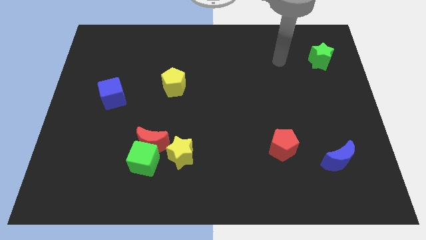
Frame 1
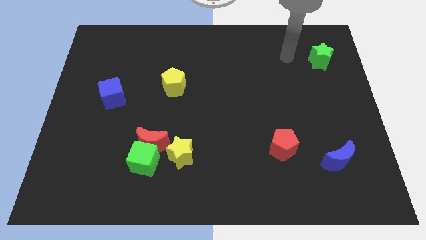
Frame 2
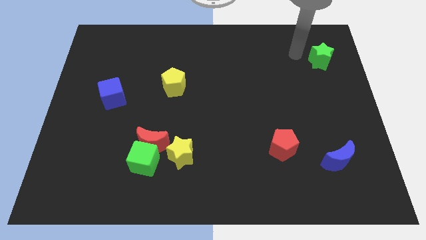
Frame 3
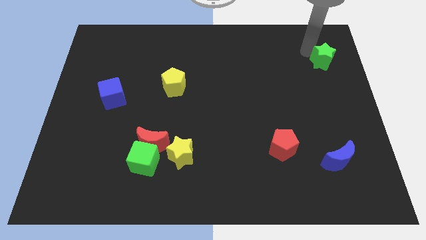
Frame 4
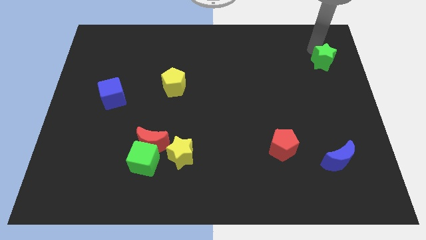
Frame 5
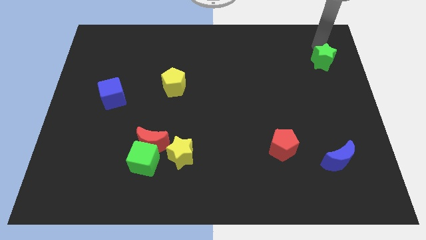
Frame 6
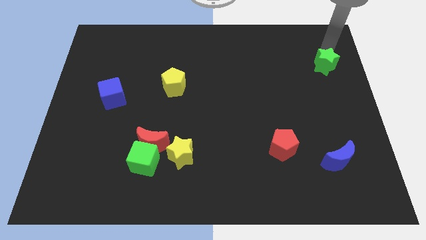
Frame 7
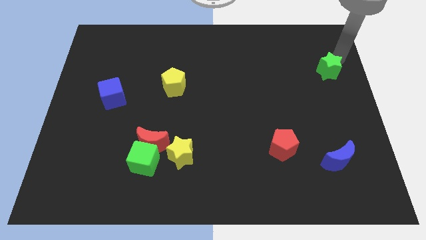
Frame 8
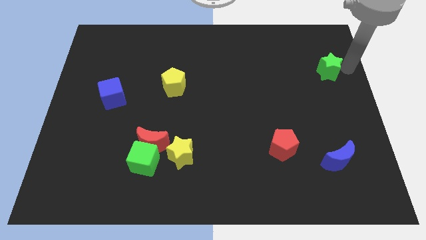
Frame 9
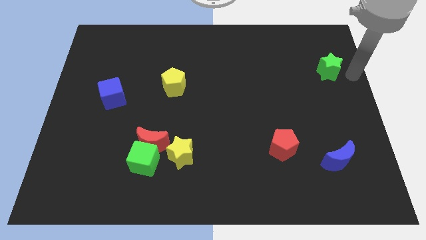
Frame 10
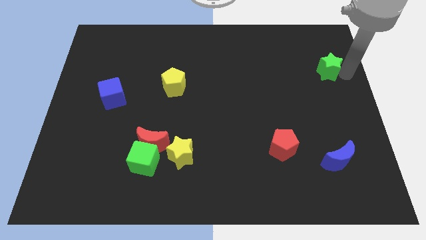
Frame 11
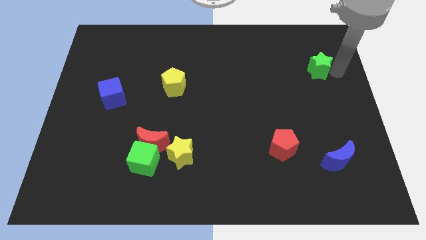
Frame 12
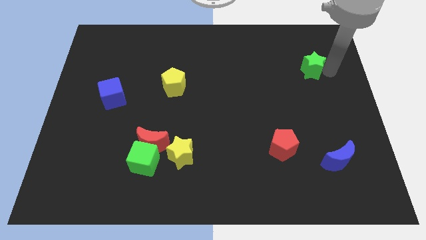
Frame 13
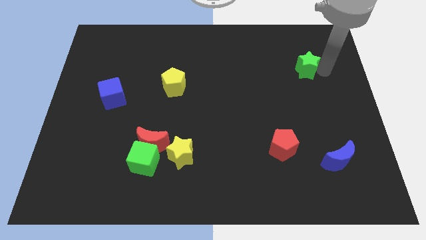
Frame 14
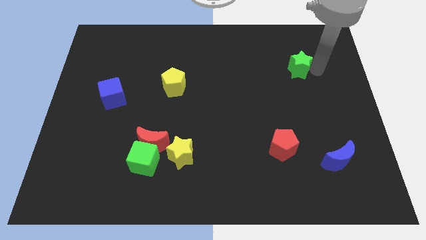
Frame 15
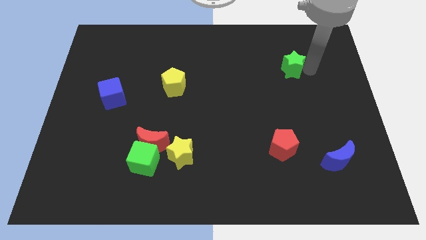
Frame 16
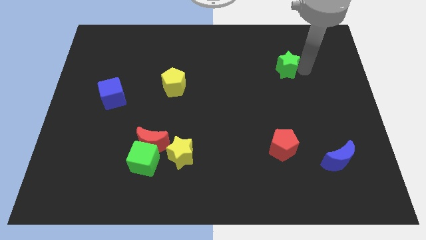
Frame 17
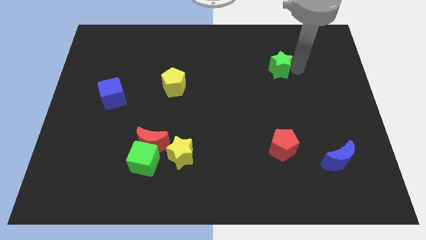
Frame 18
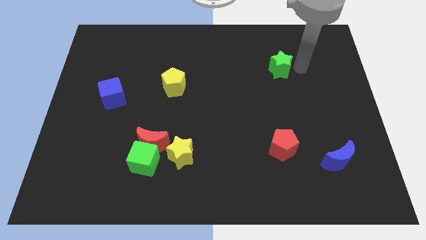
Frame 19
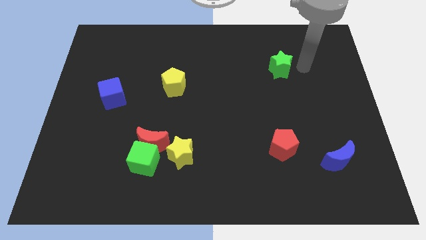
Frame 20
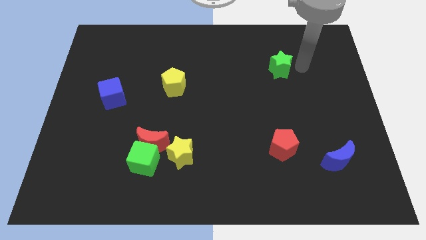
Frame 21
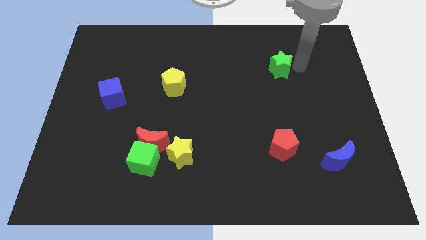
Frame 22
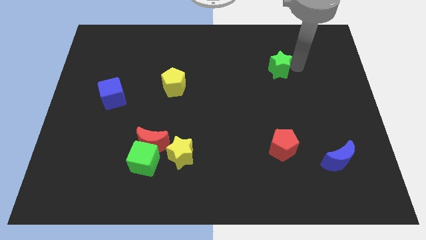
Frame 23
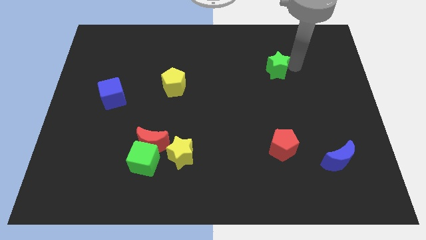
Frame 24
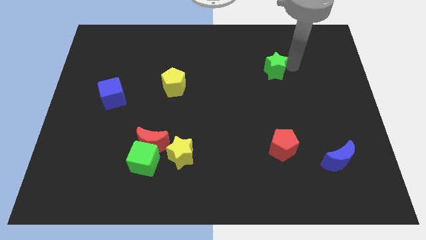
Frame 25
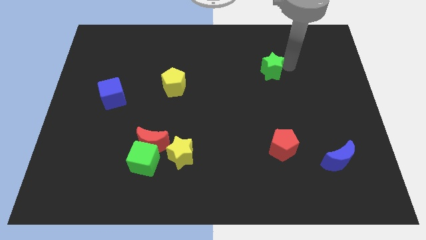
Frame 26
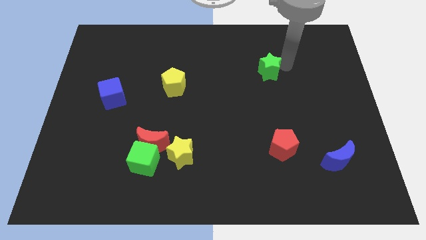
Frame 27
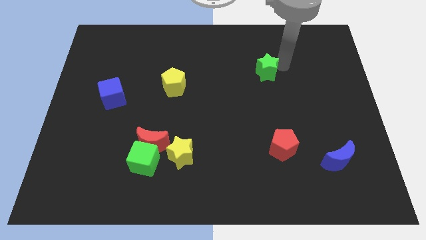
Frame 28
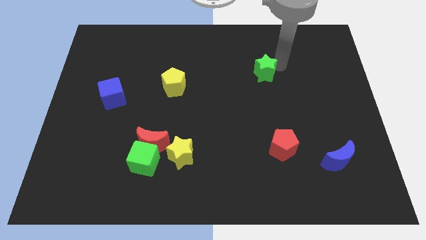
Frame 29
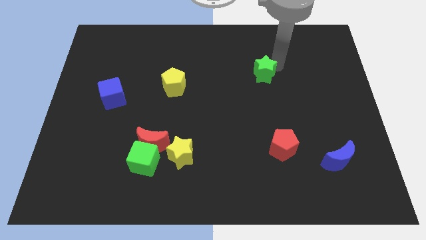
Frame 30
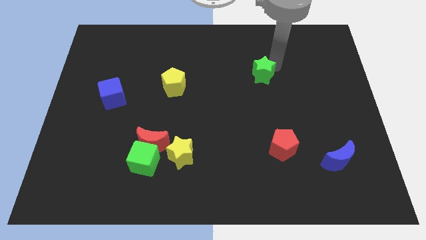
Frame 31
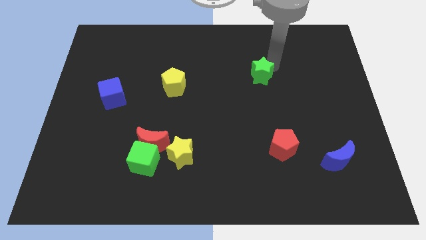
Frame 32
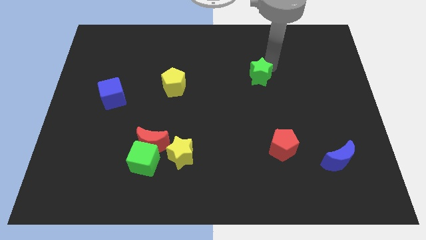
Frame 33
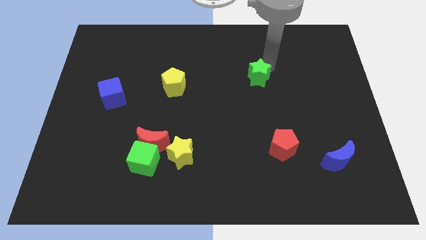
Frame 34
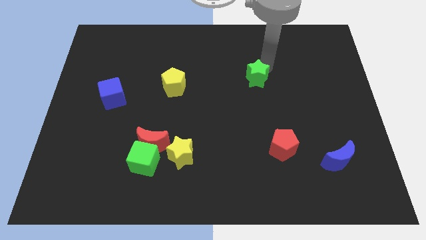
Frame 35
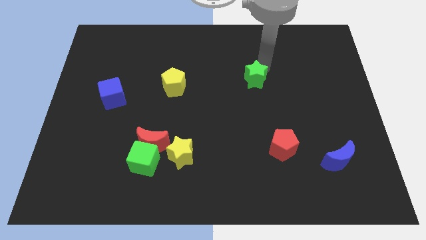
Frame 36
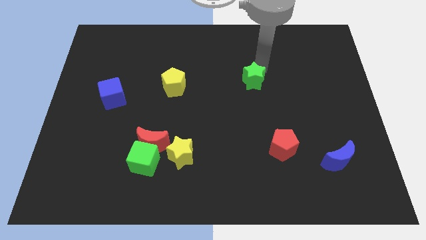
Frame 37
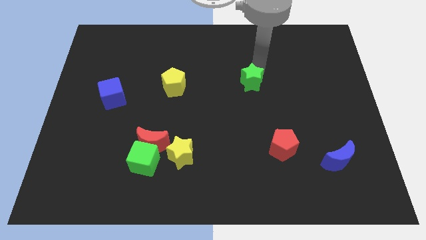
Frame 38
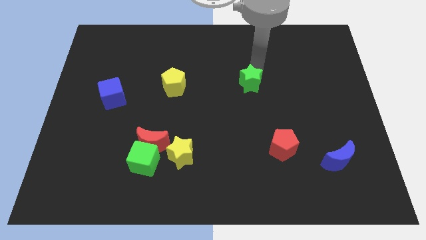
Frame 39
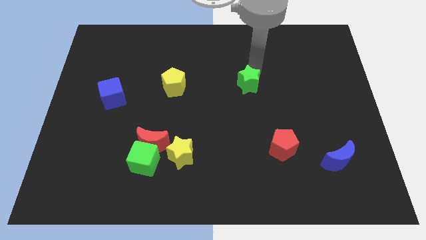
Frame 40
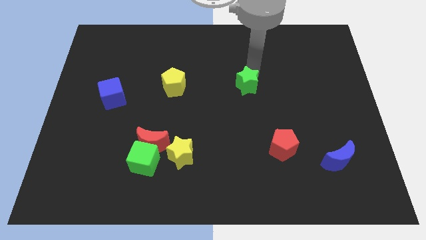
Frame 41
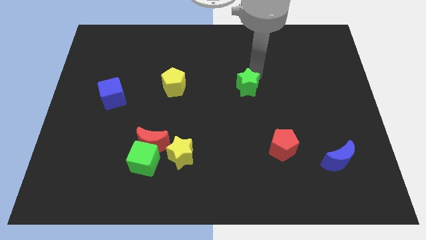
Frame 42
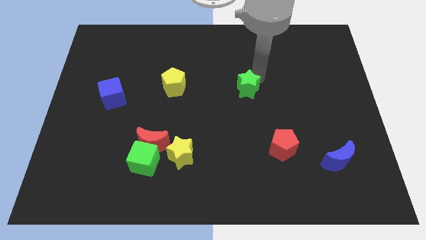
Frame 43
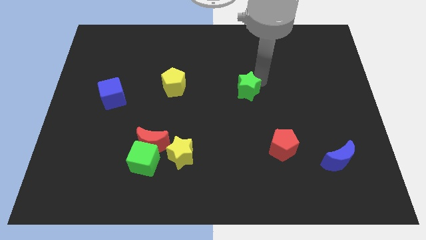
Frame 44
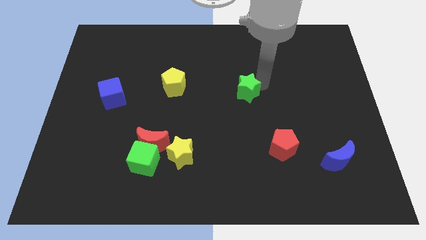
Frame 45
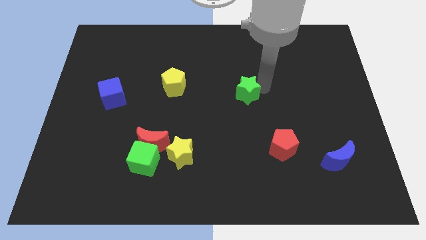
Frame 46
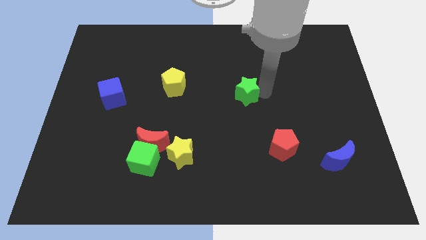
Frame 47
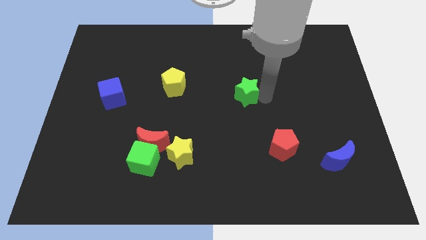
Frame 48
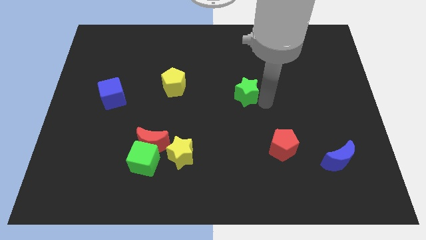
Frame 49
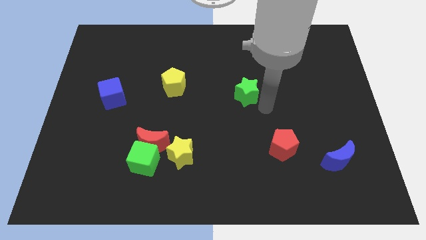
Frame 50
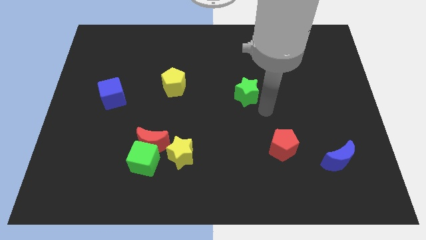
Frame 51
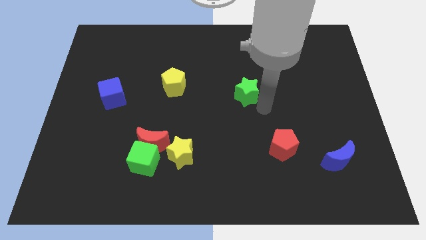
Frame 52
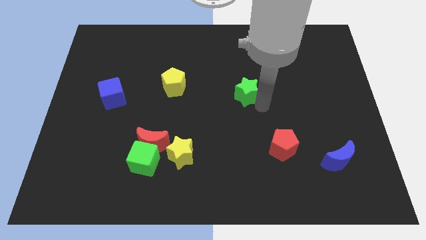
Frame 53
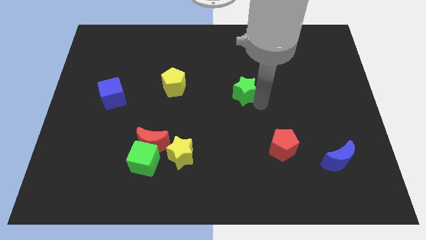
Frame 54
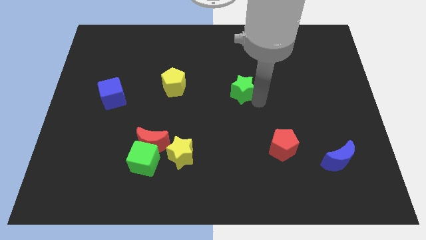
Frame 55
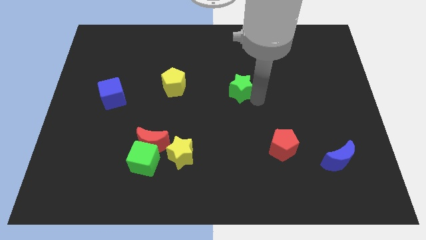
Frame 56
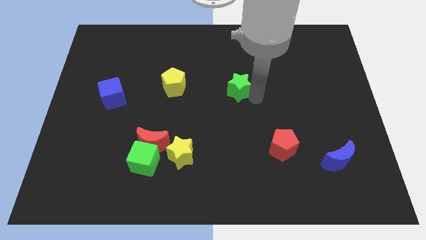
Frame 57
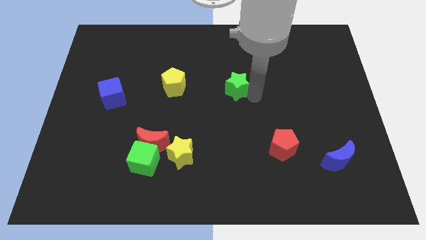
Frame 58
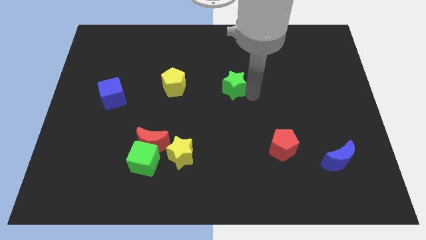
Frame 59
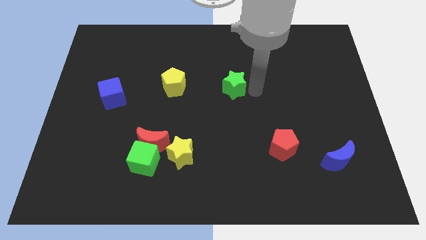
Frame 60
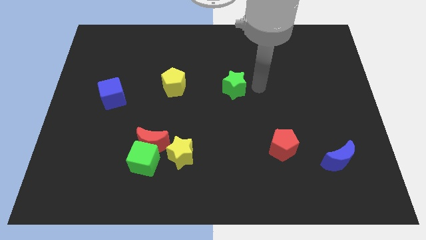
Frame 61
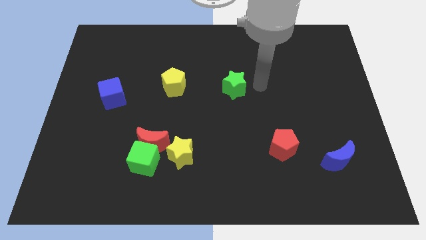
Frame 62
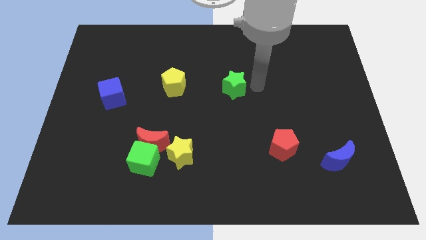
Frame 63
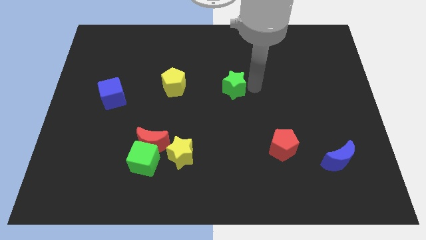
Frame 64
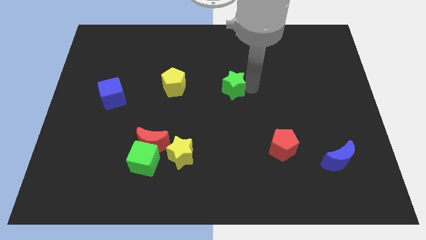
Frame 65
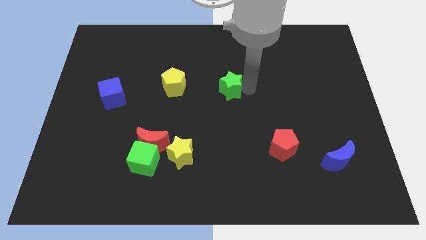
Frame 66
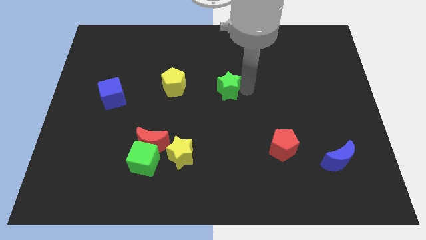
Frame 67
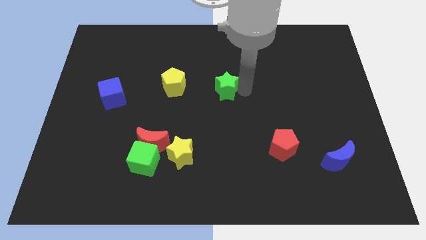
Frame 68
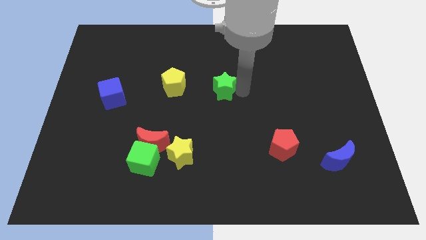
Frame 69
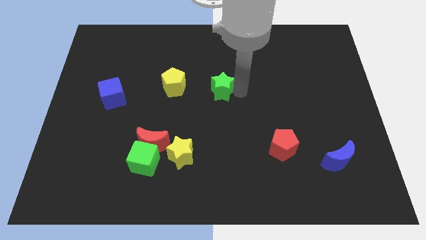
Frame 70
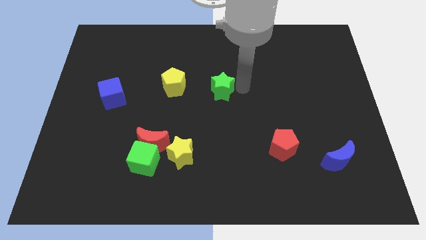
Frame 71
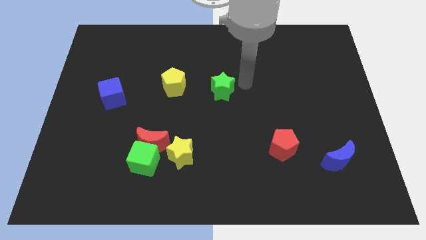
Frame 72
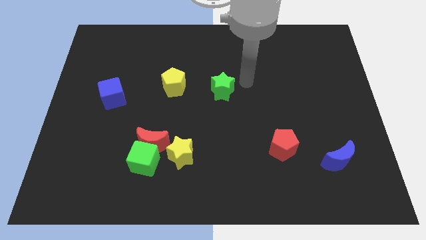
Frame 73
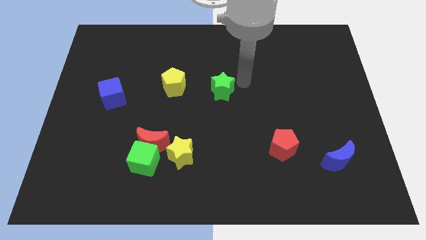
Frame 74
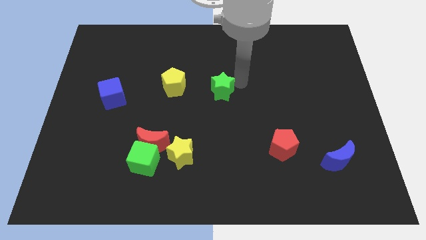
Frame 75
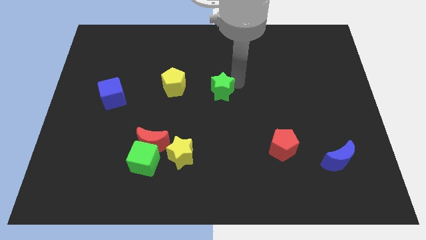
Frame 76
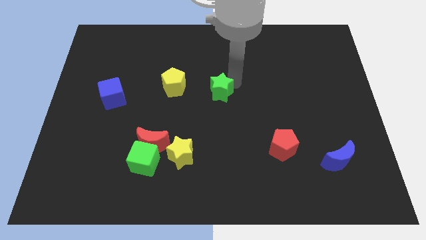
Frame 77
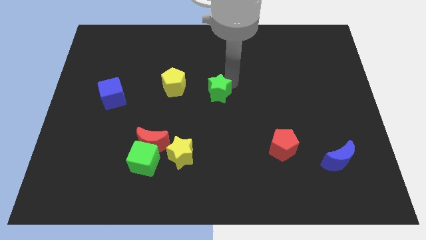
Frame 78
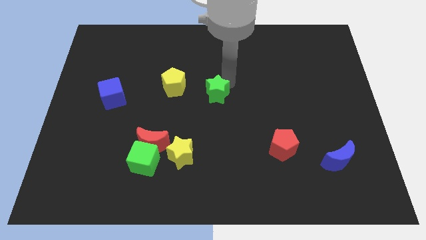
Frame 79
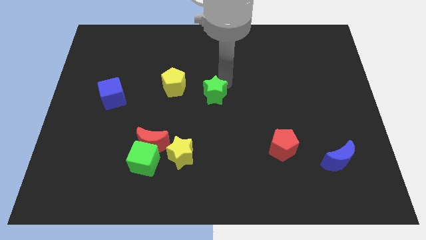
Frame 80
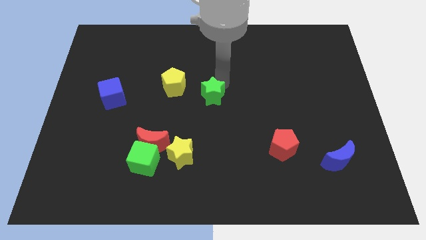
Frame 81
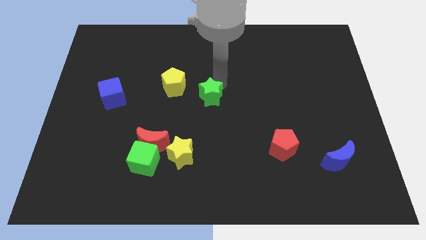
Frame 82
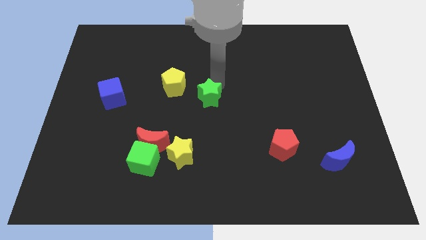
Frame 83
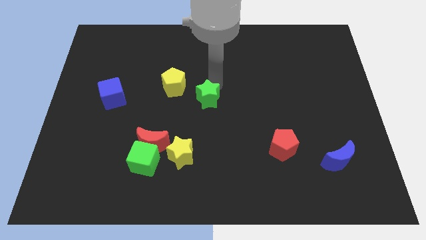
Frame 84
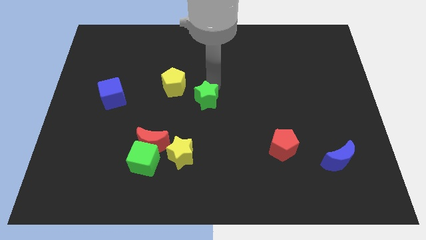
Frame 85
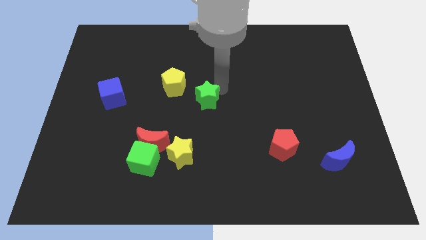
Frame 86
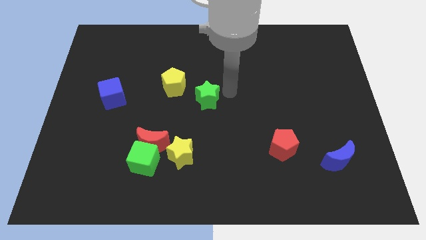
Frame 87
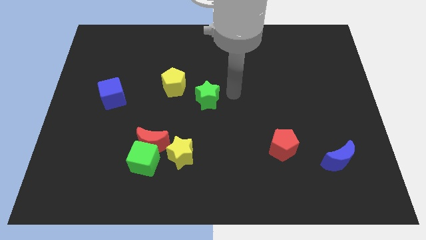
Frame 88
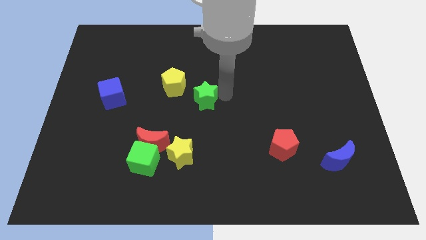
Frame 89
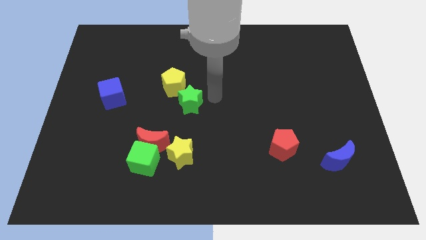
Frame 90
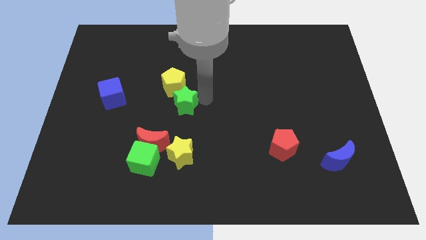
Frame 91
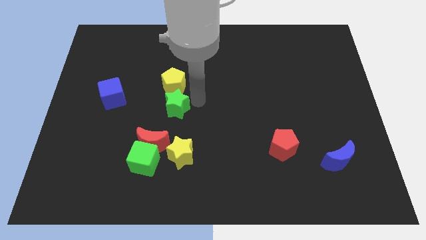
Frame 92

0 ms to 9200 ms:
put the green star to the top side of the red moon
